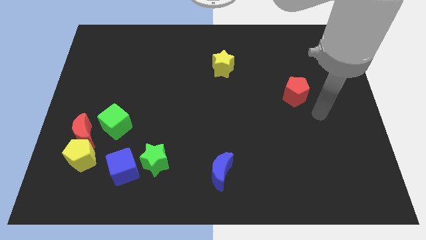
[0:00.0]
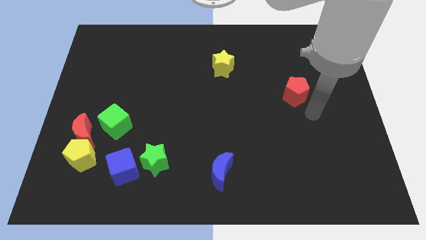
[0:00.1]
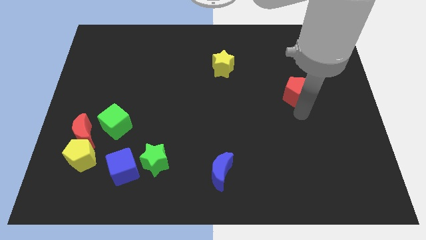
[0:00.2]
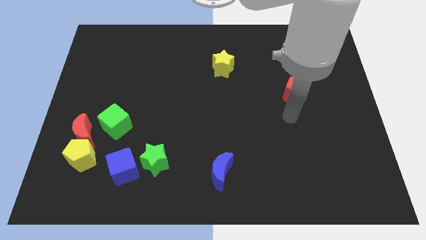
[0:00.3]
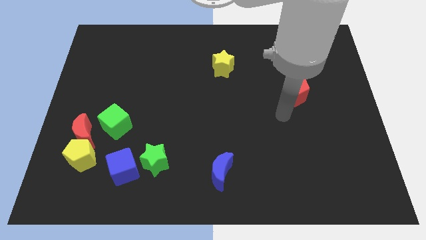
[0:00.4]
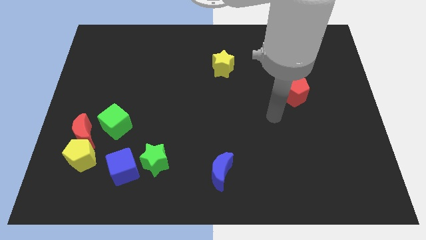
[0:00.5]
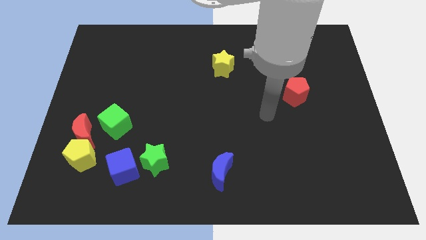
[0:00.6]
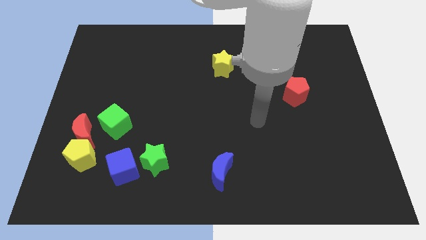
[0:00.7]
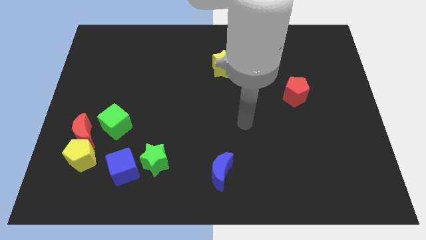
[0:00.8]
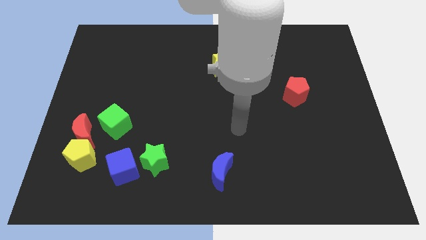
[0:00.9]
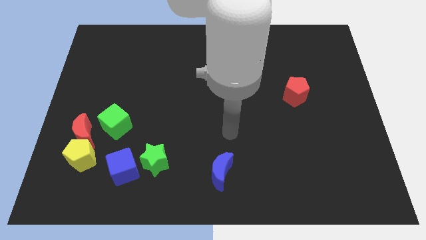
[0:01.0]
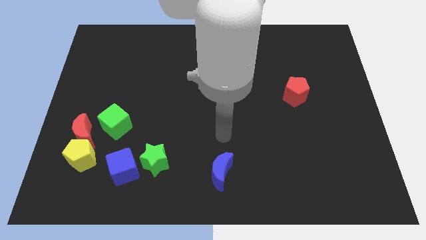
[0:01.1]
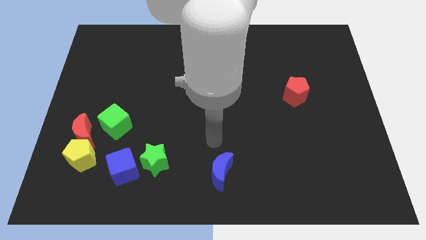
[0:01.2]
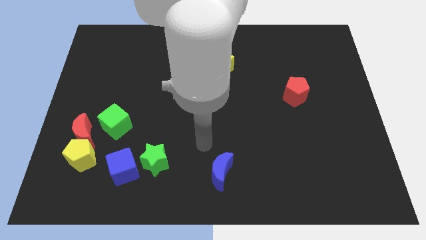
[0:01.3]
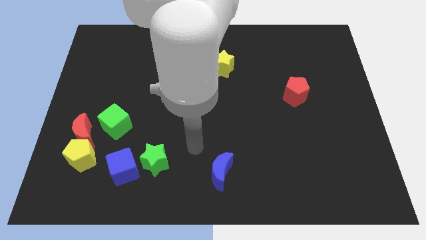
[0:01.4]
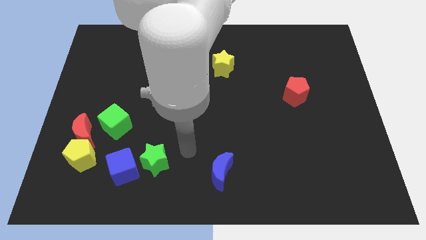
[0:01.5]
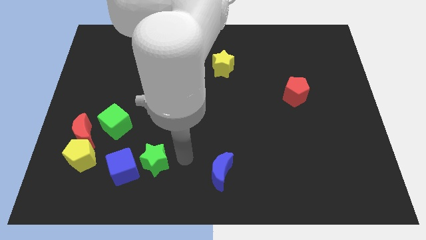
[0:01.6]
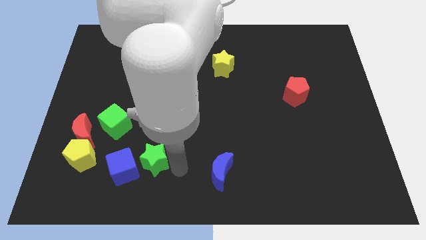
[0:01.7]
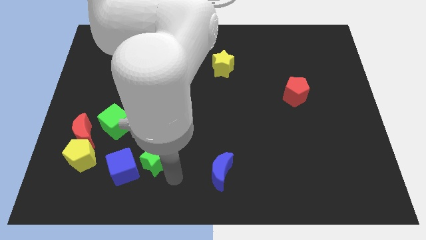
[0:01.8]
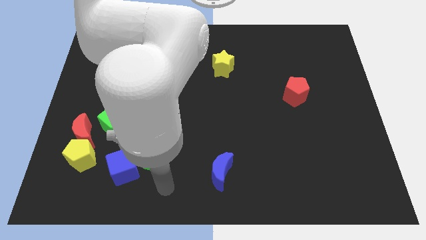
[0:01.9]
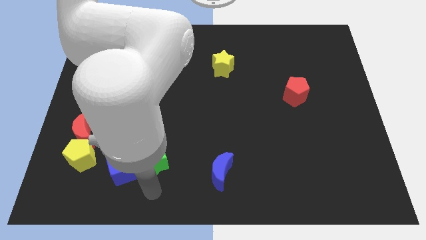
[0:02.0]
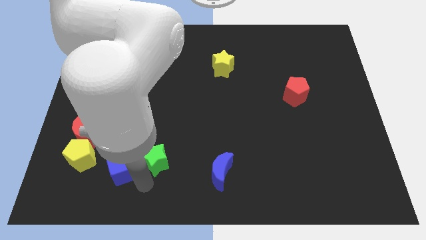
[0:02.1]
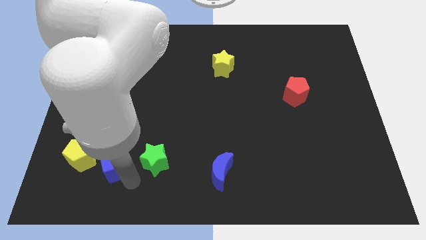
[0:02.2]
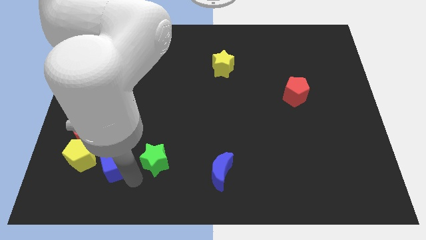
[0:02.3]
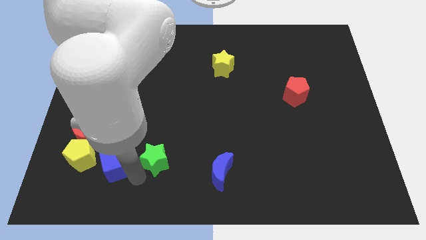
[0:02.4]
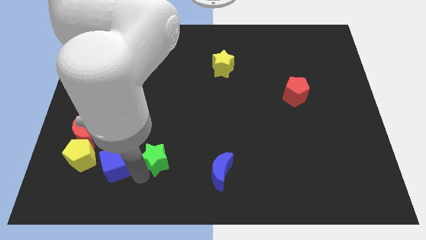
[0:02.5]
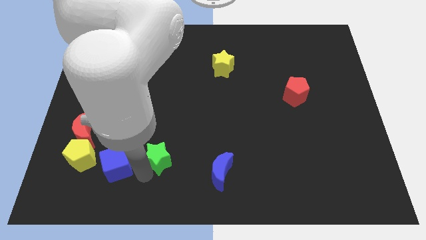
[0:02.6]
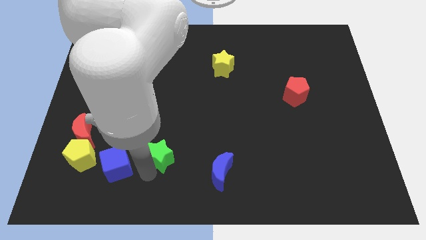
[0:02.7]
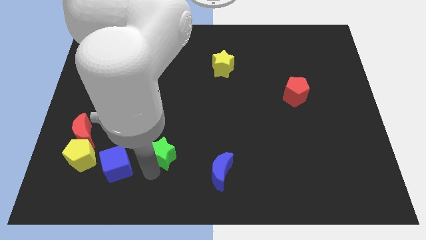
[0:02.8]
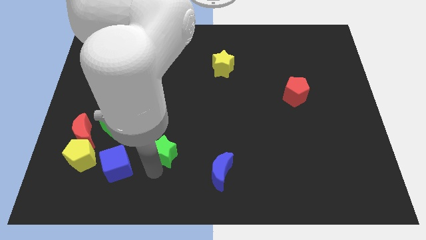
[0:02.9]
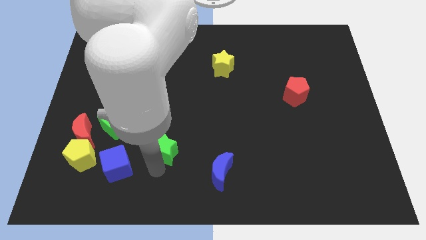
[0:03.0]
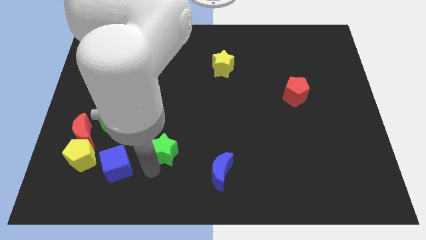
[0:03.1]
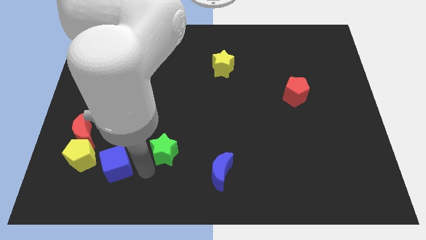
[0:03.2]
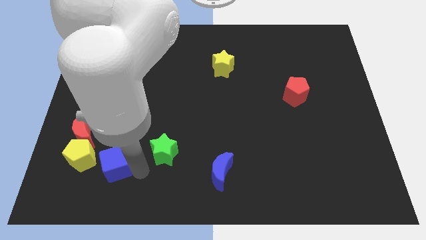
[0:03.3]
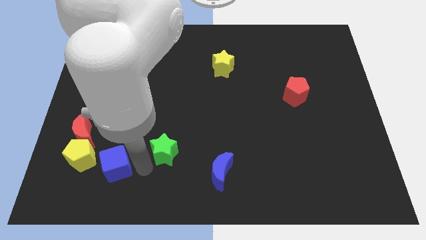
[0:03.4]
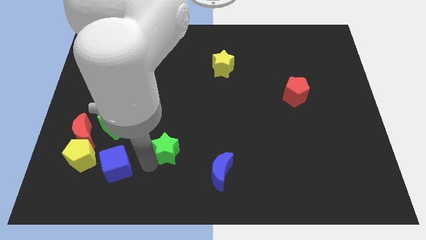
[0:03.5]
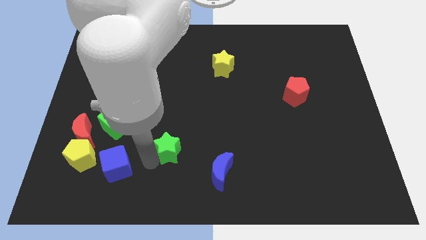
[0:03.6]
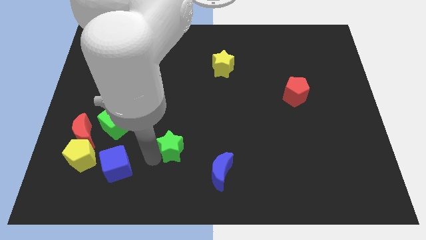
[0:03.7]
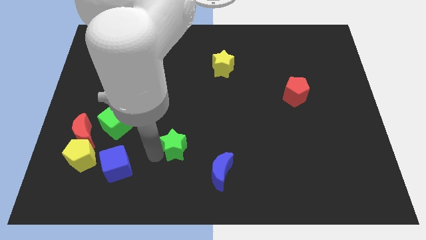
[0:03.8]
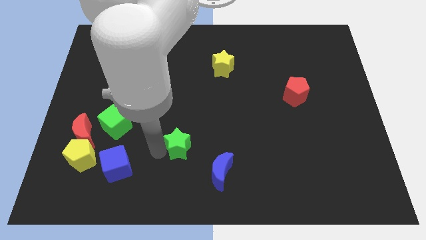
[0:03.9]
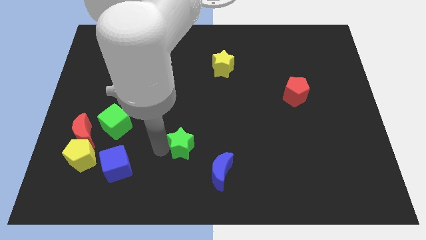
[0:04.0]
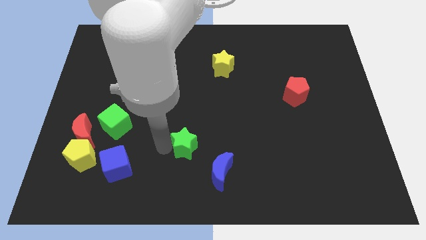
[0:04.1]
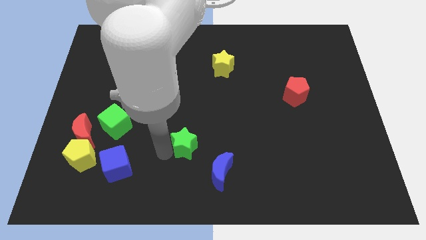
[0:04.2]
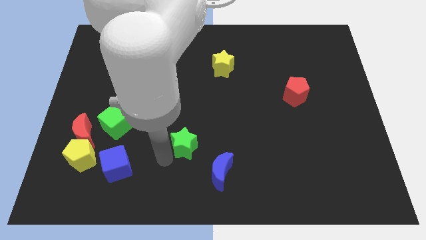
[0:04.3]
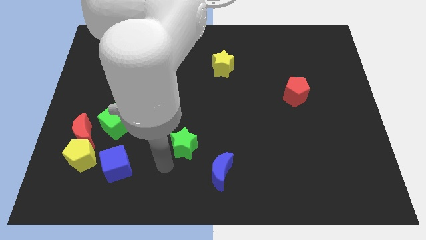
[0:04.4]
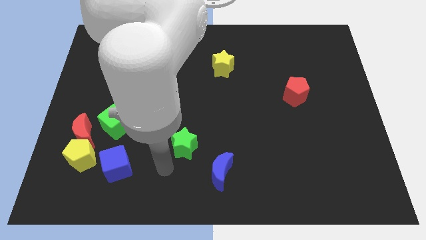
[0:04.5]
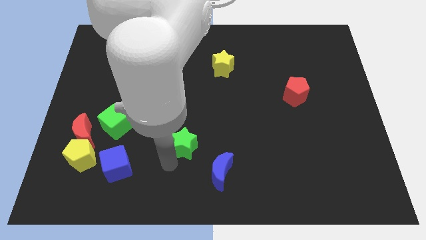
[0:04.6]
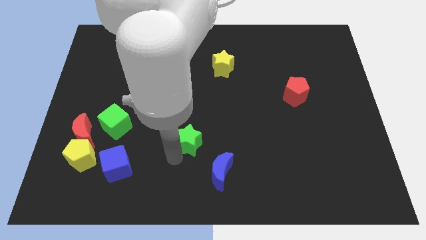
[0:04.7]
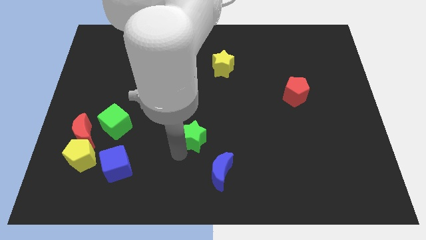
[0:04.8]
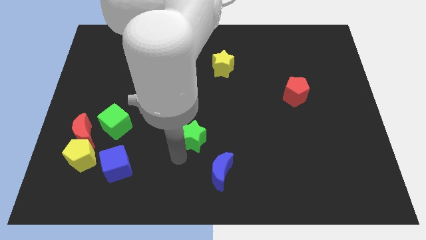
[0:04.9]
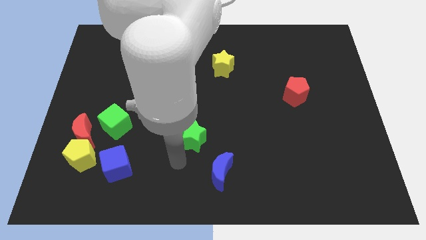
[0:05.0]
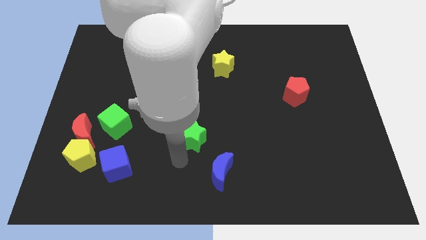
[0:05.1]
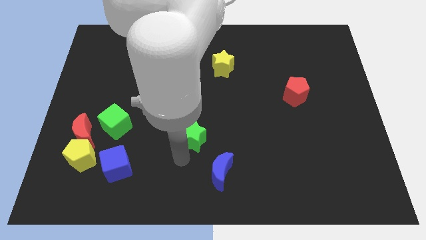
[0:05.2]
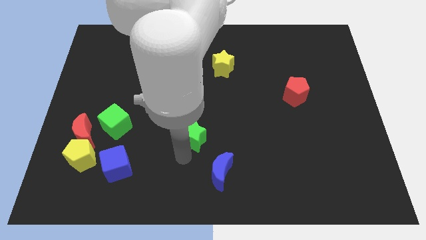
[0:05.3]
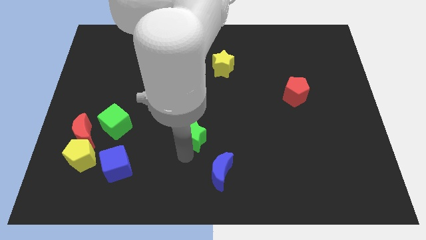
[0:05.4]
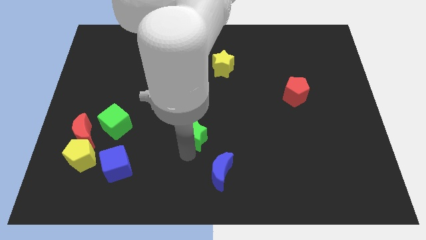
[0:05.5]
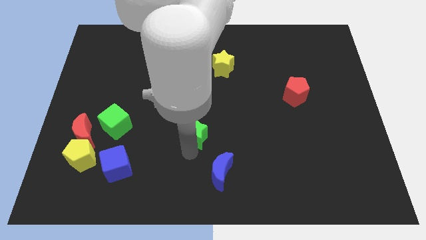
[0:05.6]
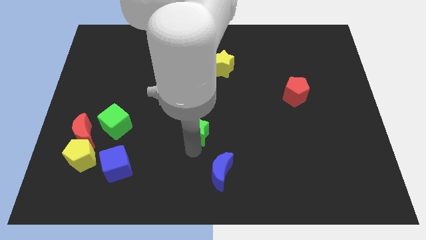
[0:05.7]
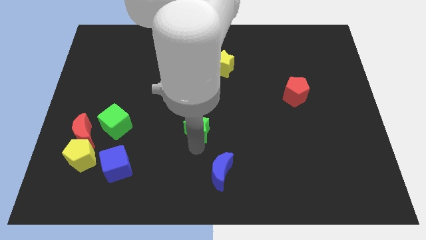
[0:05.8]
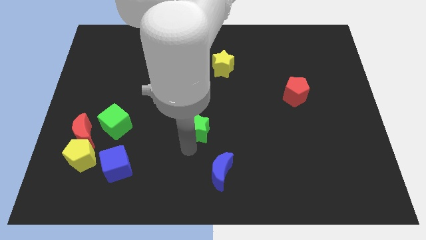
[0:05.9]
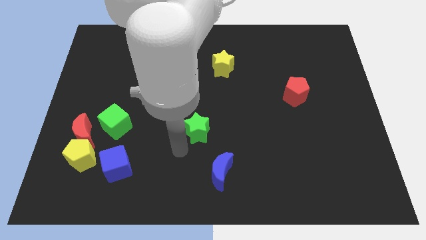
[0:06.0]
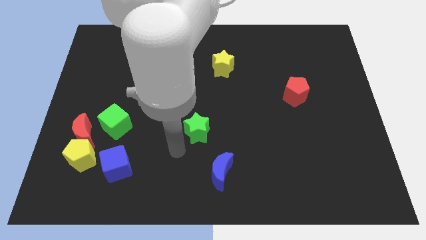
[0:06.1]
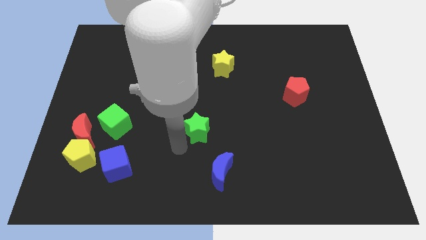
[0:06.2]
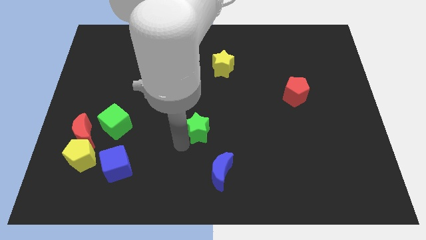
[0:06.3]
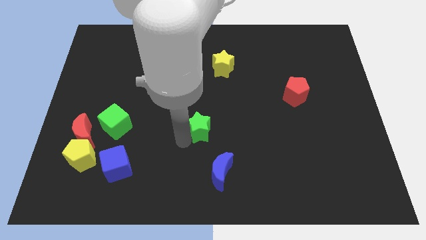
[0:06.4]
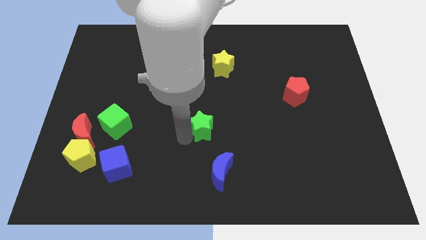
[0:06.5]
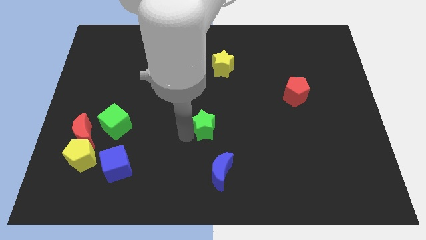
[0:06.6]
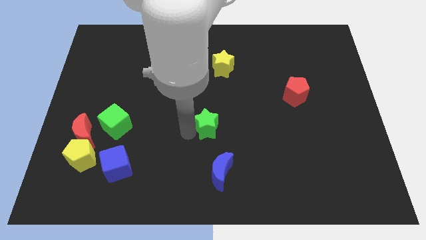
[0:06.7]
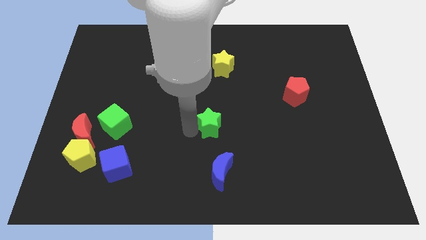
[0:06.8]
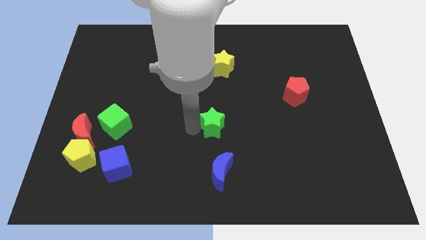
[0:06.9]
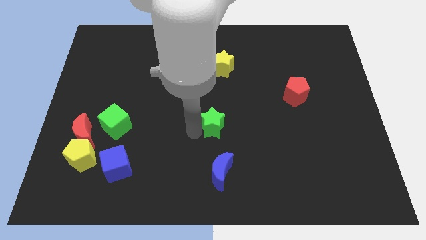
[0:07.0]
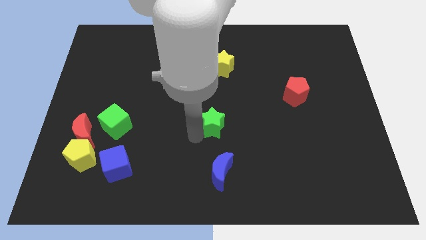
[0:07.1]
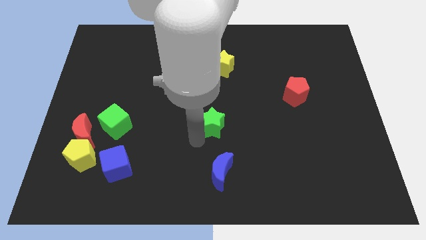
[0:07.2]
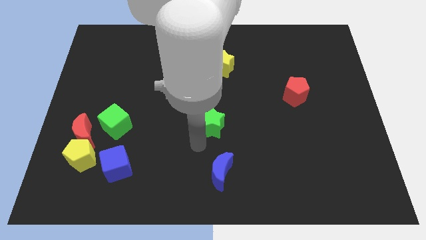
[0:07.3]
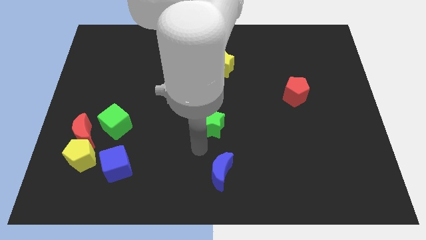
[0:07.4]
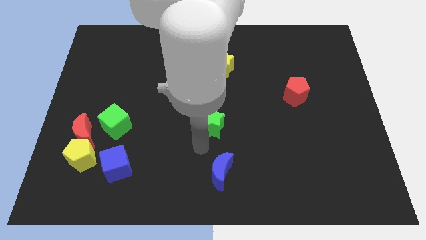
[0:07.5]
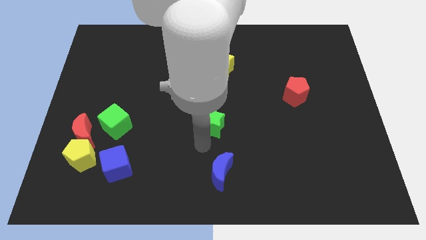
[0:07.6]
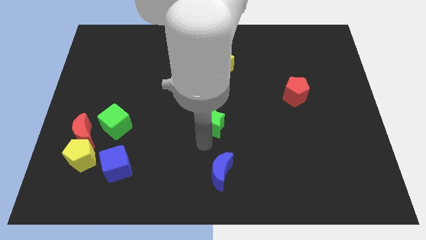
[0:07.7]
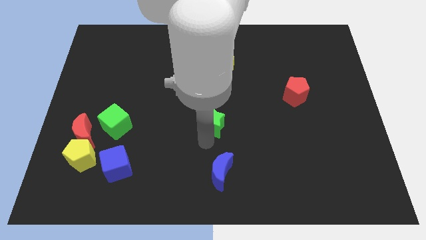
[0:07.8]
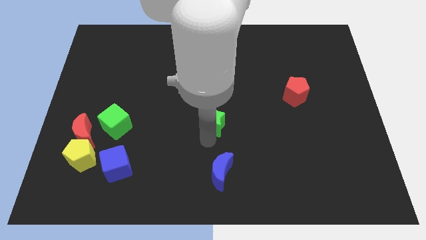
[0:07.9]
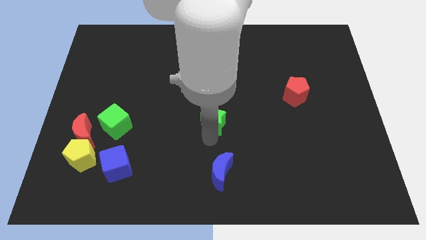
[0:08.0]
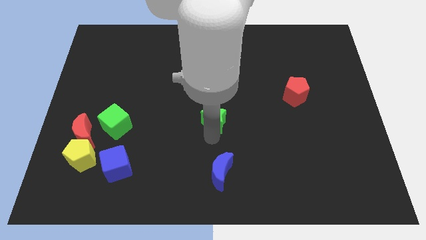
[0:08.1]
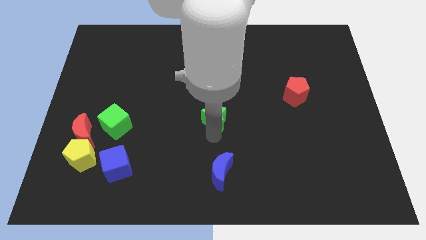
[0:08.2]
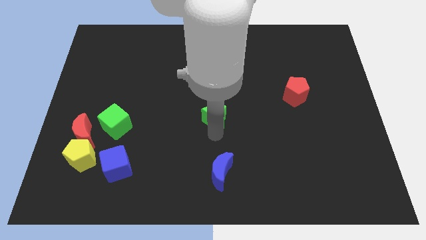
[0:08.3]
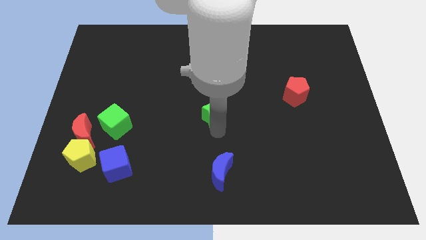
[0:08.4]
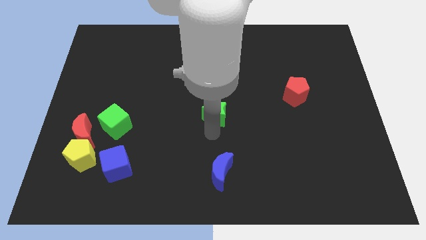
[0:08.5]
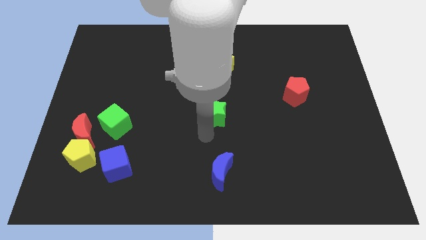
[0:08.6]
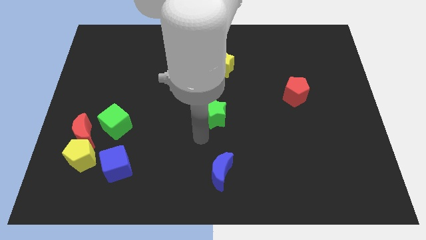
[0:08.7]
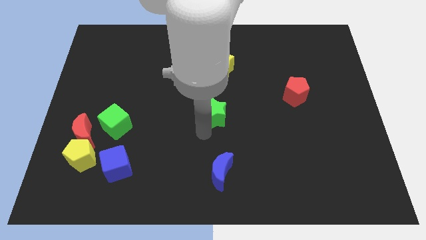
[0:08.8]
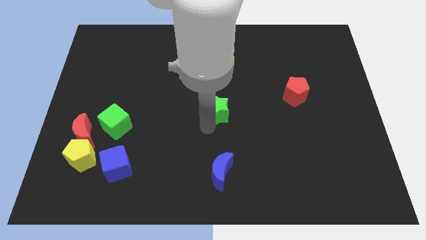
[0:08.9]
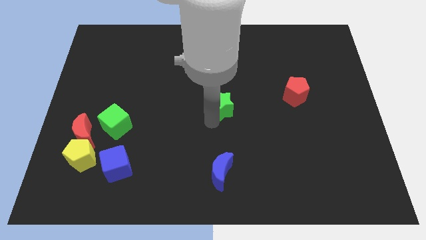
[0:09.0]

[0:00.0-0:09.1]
push the green star diagonally up and right
